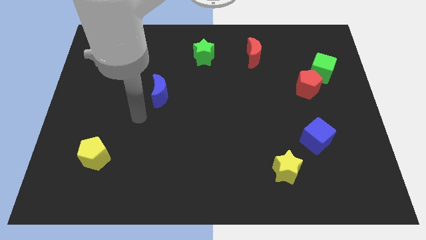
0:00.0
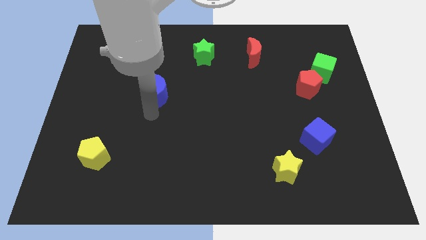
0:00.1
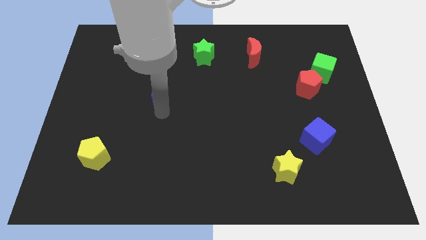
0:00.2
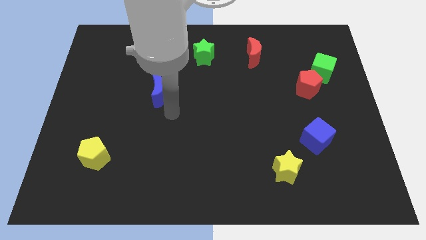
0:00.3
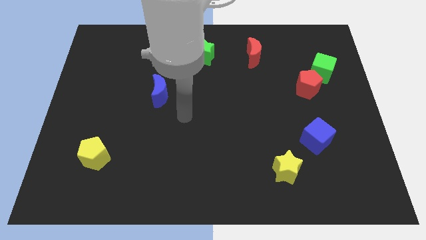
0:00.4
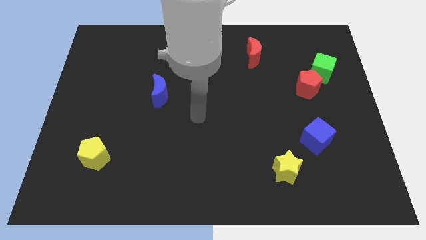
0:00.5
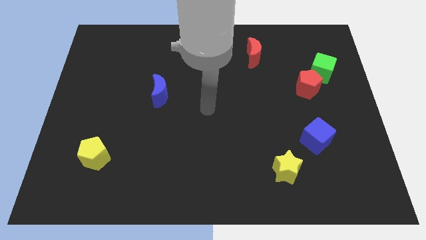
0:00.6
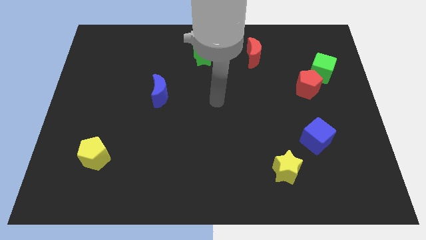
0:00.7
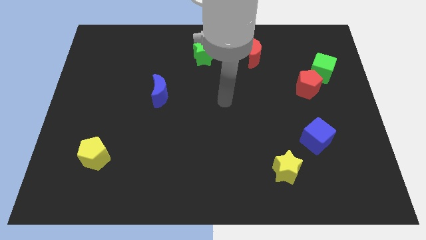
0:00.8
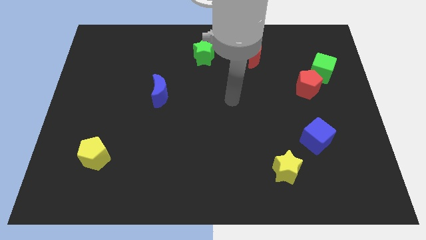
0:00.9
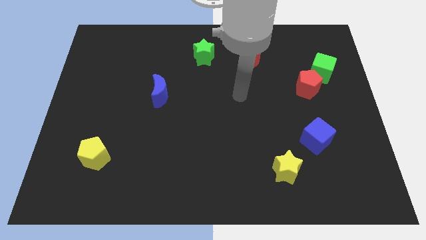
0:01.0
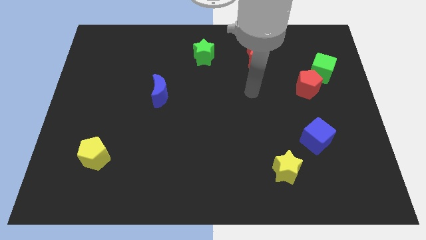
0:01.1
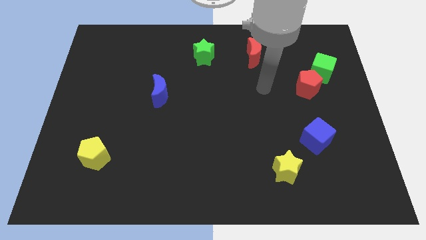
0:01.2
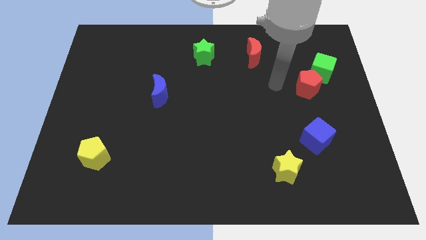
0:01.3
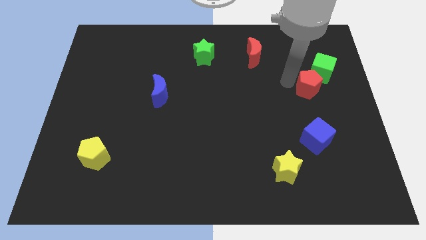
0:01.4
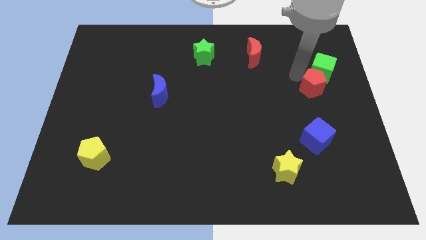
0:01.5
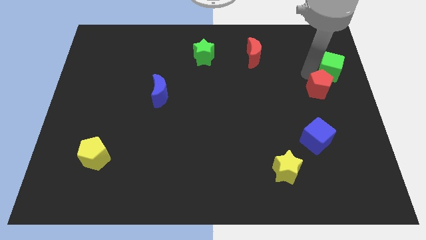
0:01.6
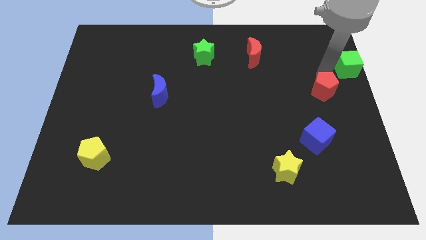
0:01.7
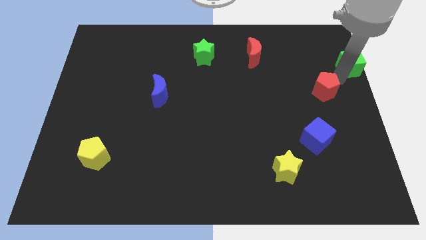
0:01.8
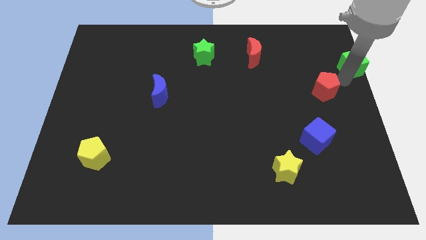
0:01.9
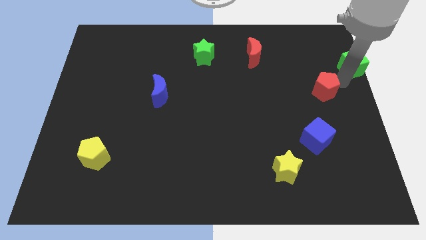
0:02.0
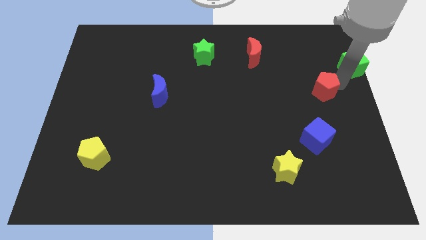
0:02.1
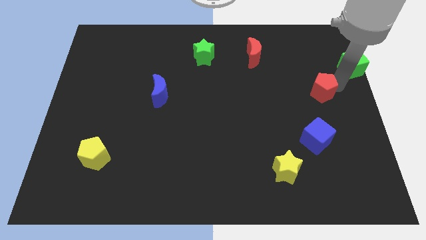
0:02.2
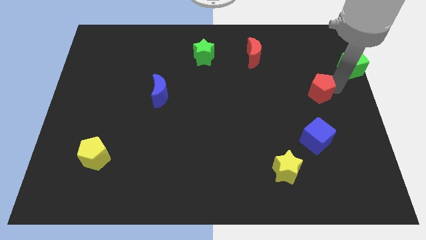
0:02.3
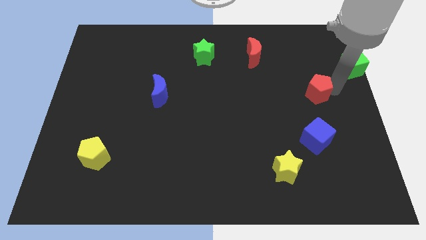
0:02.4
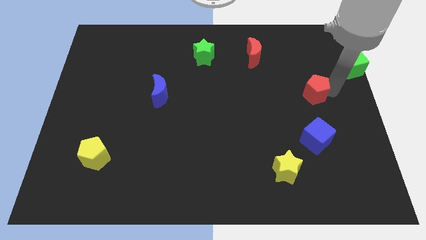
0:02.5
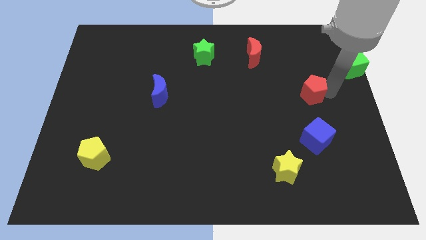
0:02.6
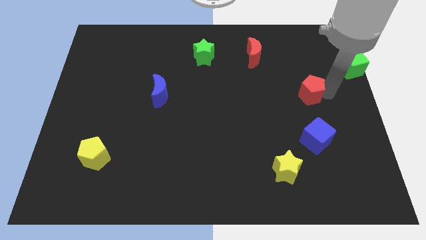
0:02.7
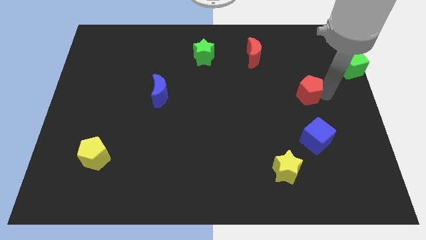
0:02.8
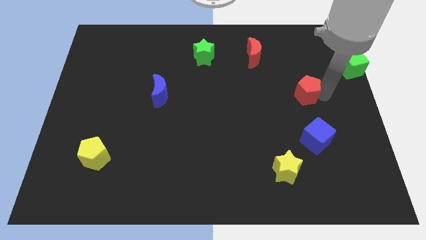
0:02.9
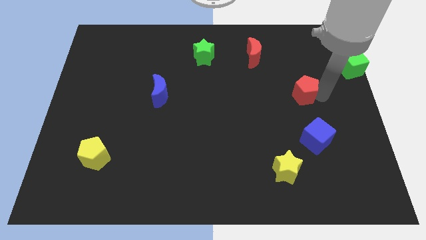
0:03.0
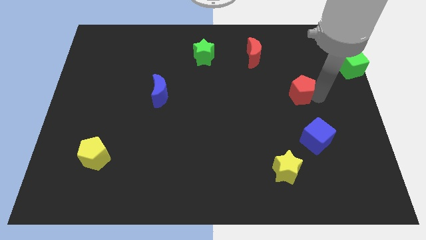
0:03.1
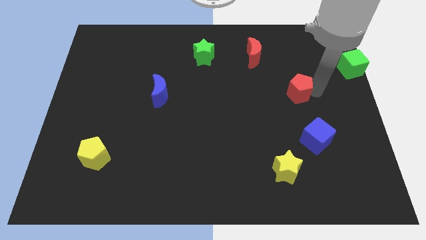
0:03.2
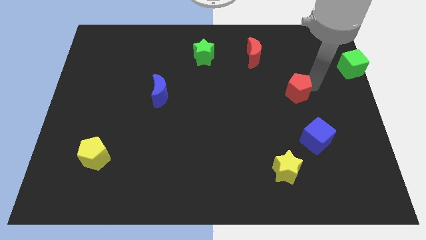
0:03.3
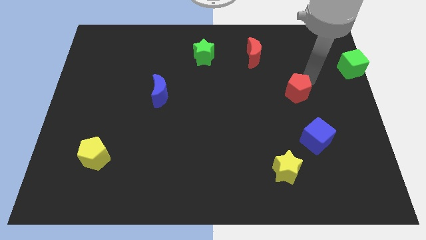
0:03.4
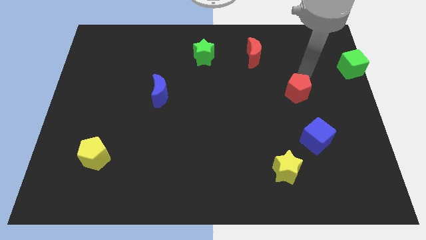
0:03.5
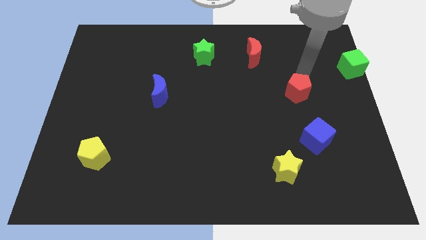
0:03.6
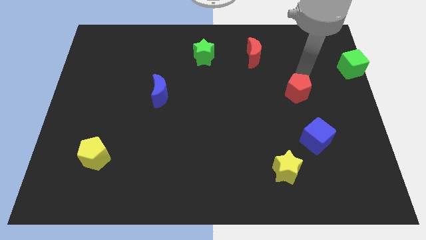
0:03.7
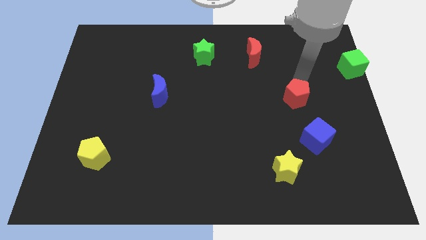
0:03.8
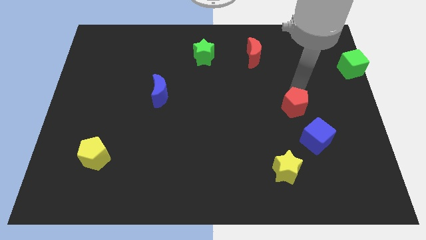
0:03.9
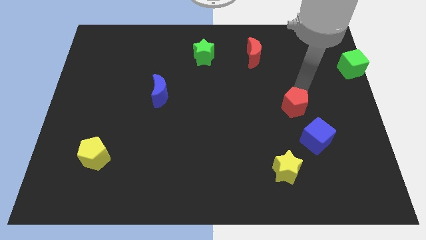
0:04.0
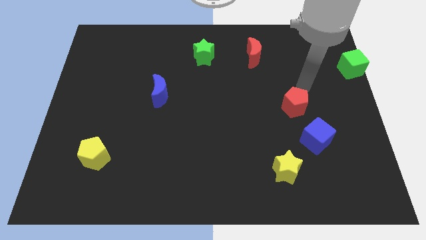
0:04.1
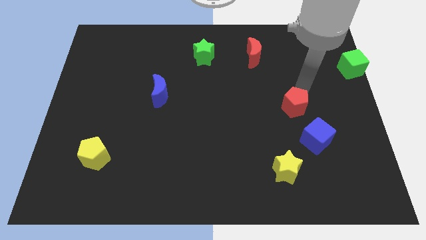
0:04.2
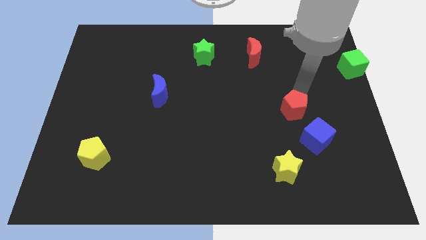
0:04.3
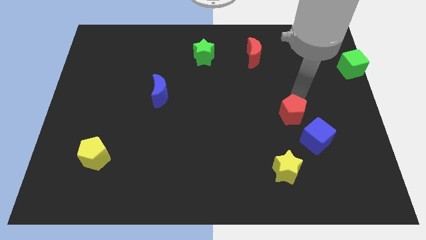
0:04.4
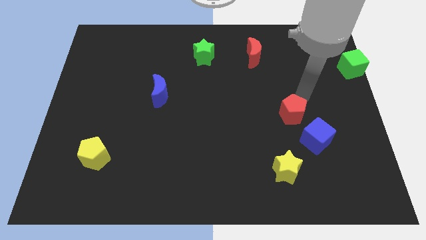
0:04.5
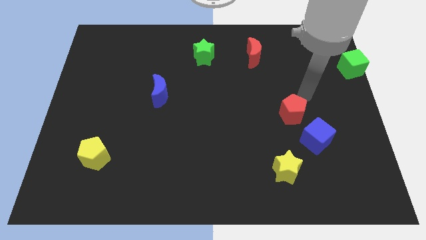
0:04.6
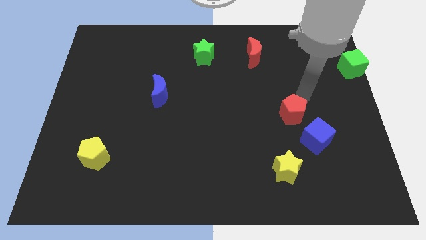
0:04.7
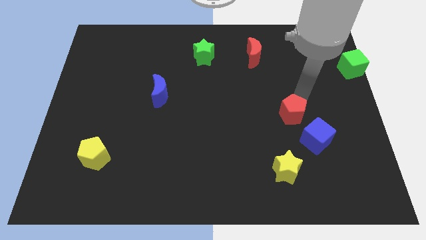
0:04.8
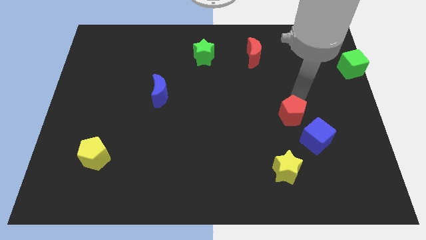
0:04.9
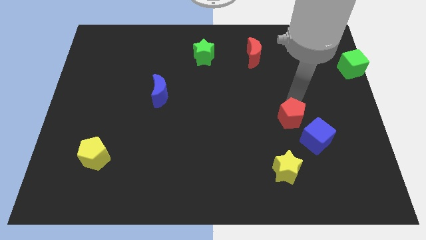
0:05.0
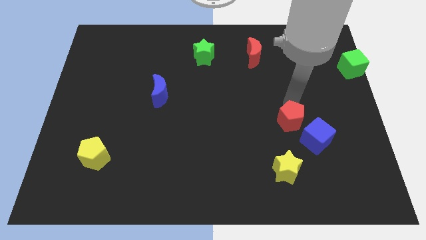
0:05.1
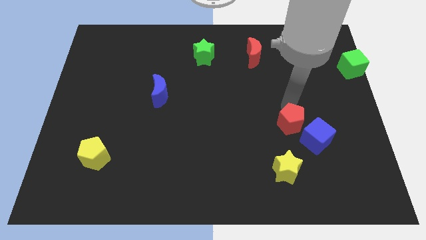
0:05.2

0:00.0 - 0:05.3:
push the red pentagon to the left side of the blue cube

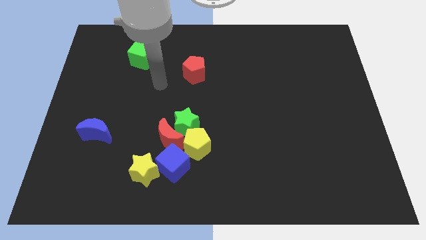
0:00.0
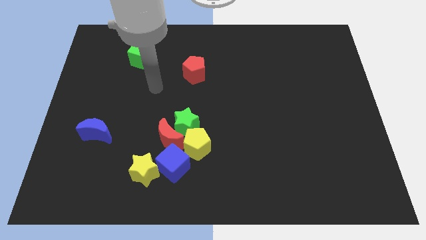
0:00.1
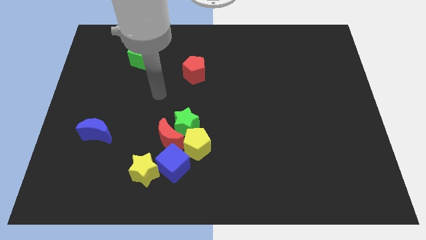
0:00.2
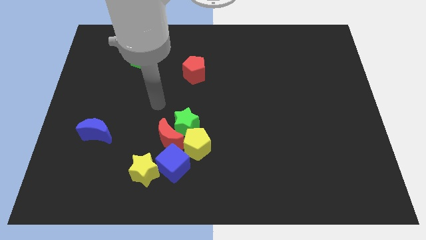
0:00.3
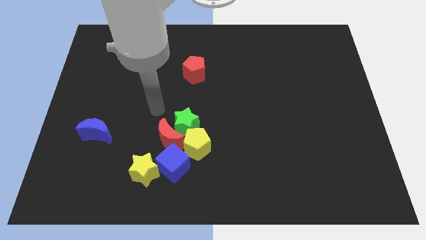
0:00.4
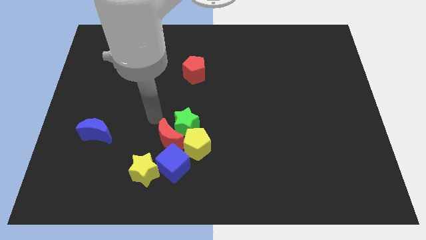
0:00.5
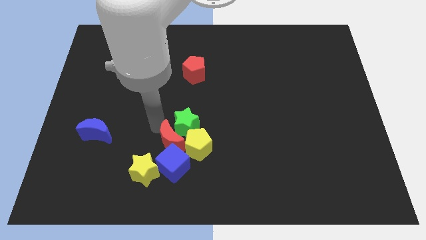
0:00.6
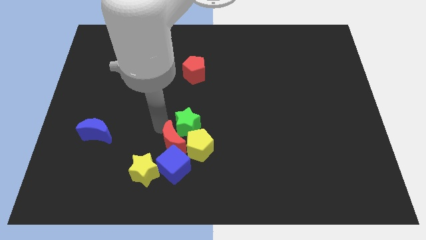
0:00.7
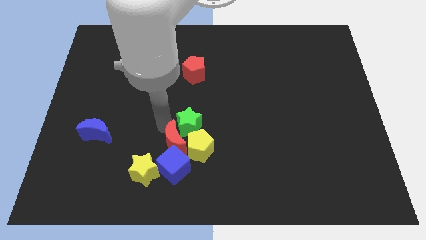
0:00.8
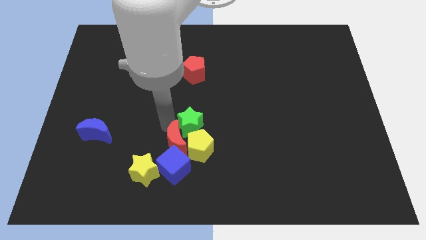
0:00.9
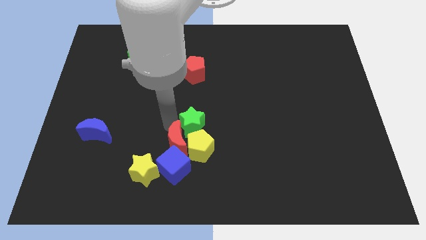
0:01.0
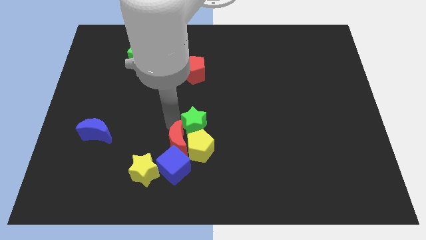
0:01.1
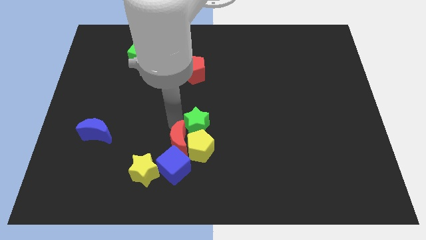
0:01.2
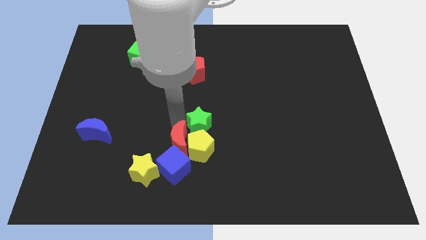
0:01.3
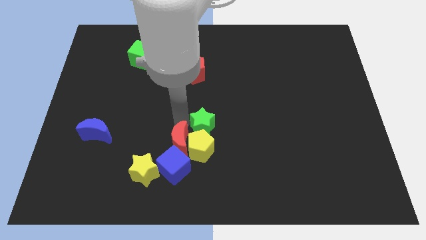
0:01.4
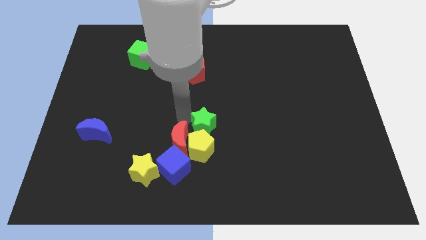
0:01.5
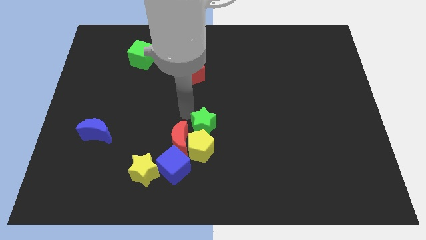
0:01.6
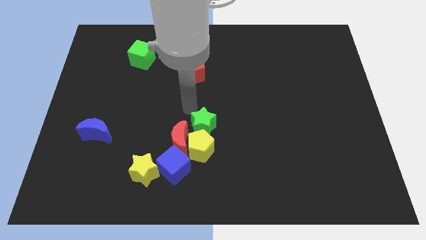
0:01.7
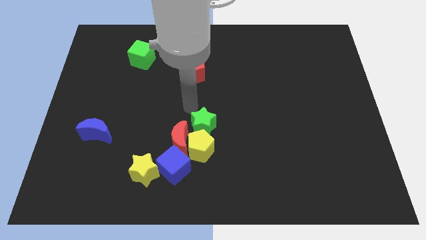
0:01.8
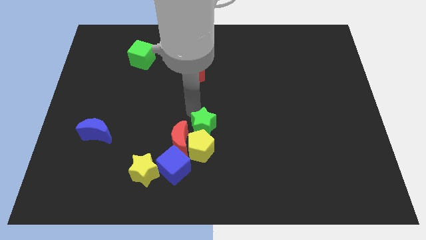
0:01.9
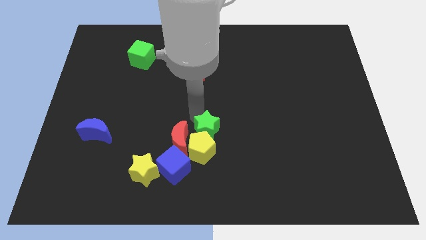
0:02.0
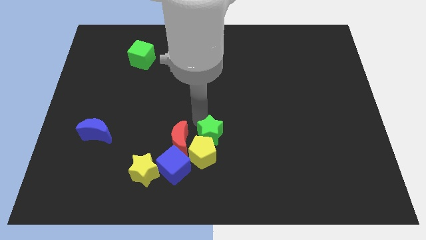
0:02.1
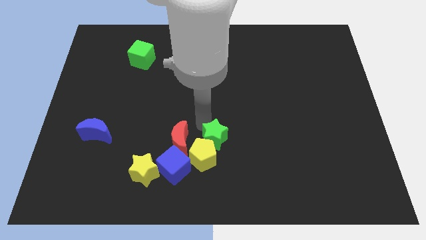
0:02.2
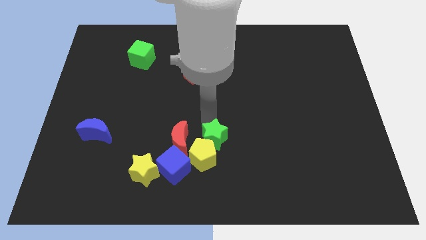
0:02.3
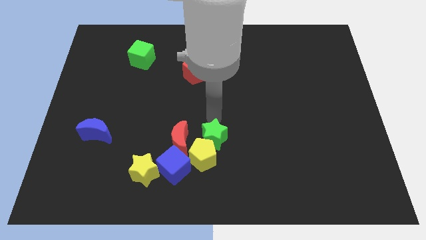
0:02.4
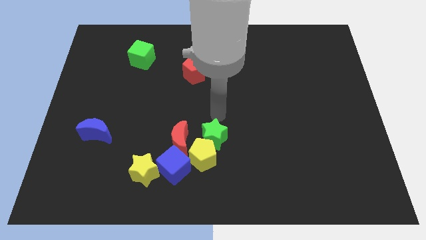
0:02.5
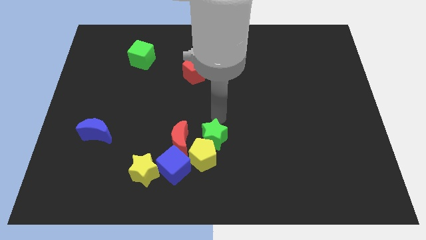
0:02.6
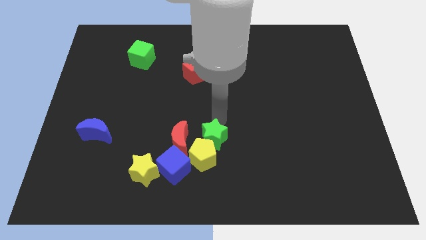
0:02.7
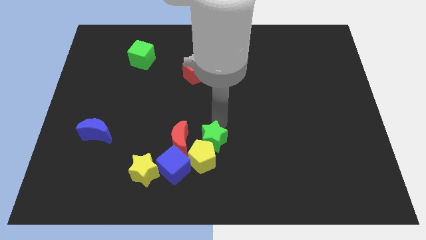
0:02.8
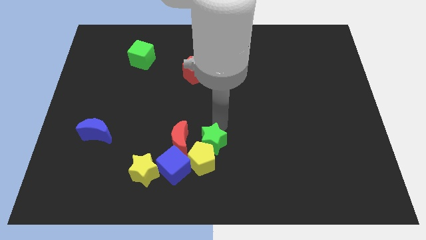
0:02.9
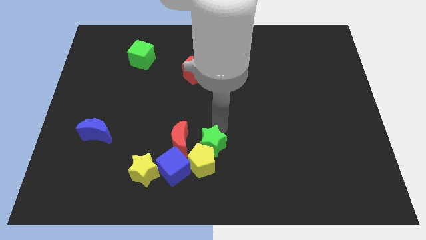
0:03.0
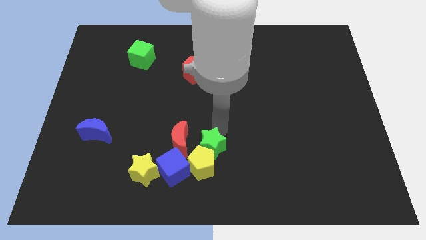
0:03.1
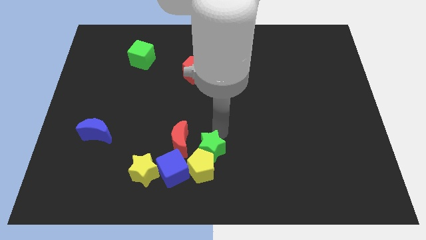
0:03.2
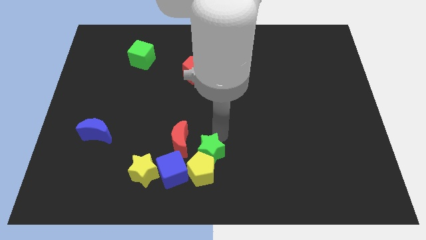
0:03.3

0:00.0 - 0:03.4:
put the green star right of the yellow star
